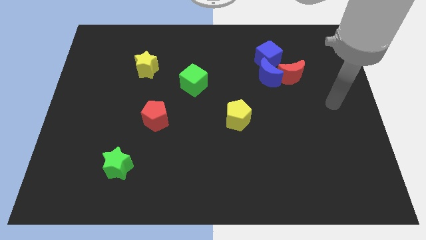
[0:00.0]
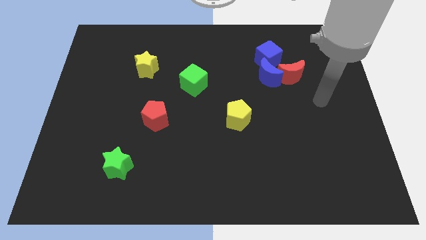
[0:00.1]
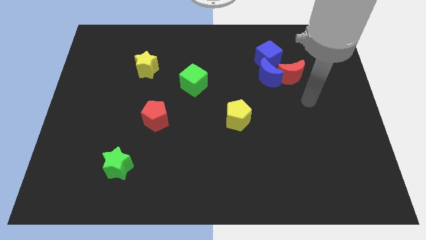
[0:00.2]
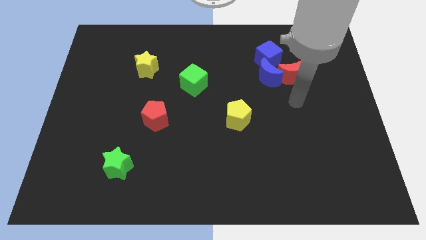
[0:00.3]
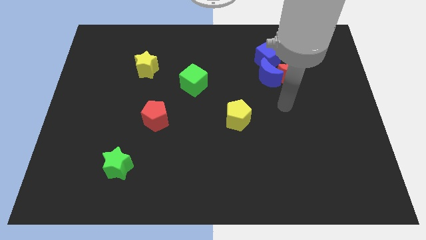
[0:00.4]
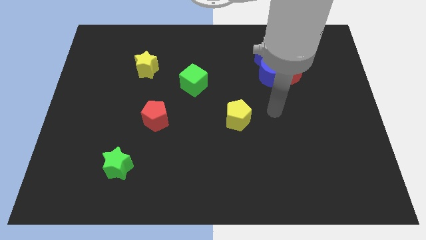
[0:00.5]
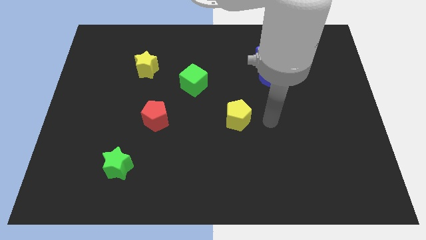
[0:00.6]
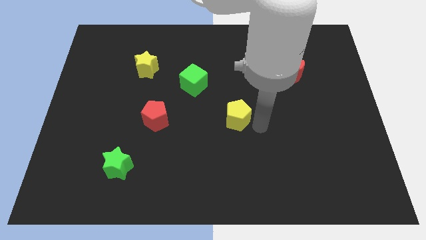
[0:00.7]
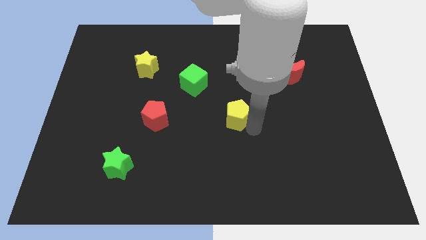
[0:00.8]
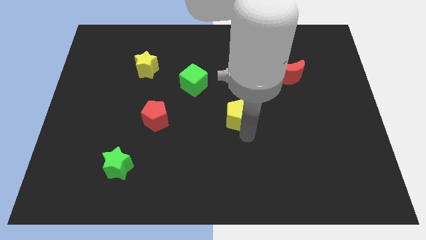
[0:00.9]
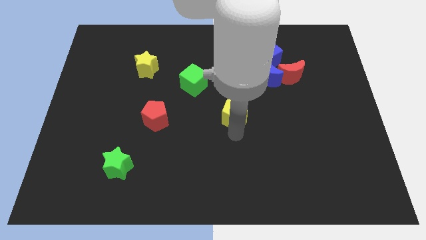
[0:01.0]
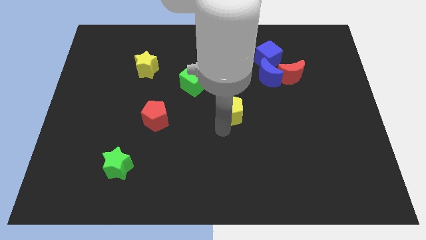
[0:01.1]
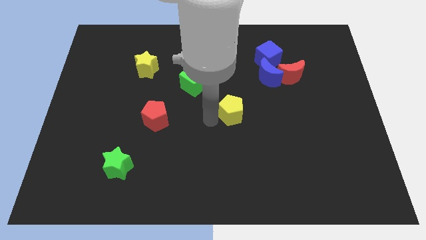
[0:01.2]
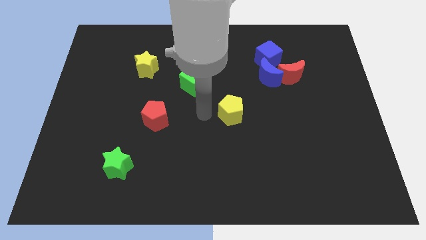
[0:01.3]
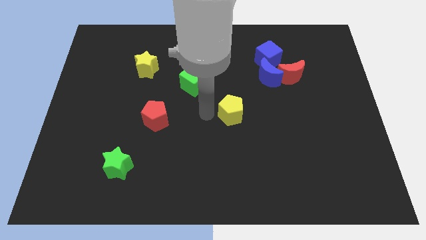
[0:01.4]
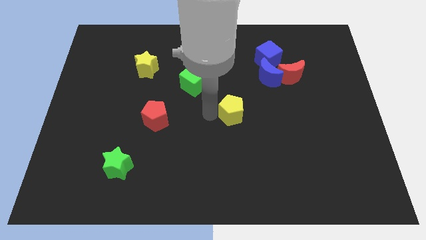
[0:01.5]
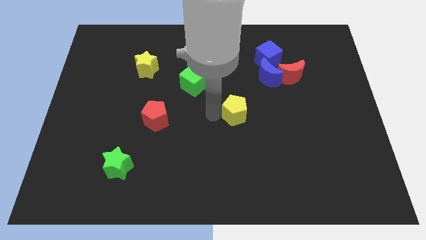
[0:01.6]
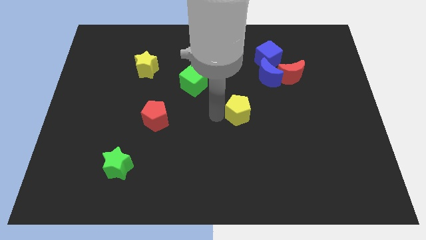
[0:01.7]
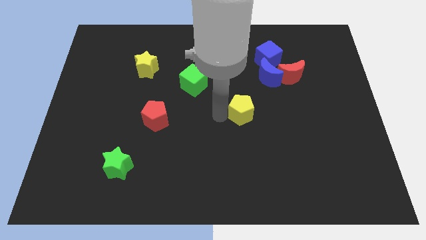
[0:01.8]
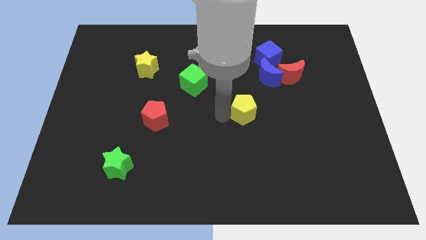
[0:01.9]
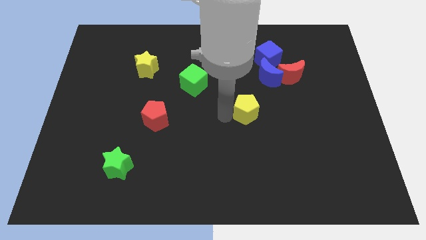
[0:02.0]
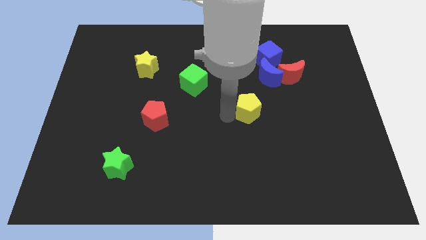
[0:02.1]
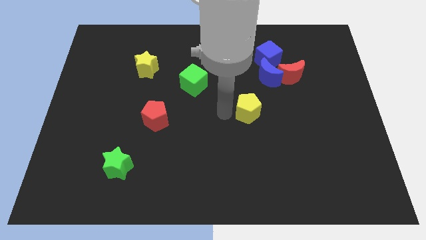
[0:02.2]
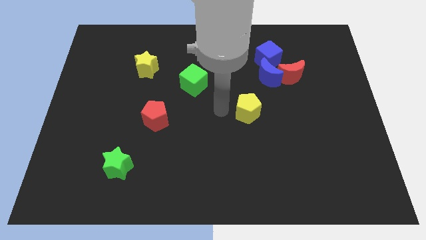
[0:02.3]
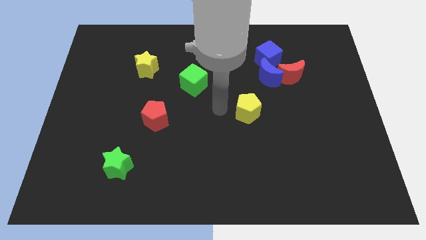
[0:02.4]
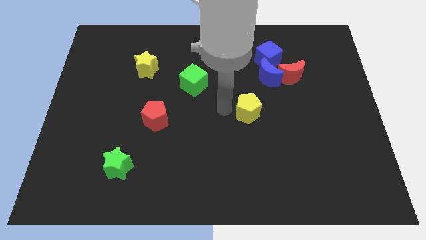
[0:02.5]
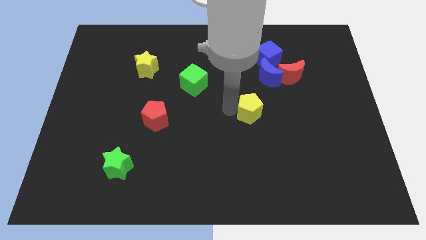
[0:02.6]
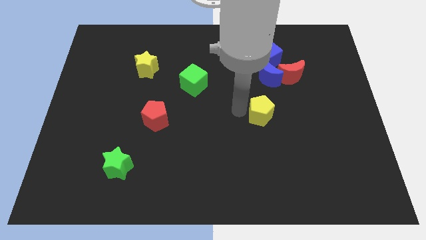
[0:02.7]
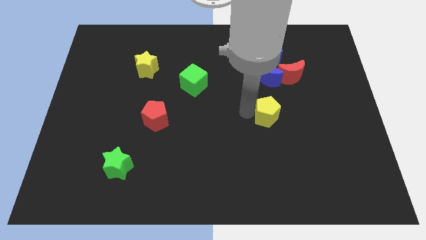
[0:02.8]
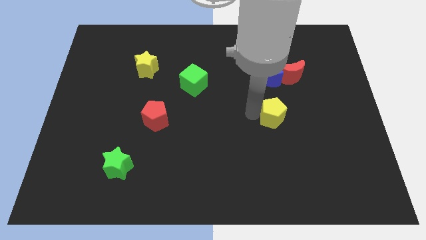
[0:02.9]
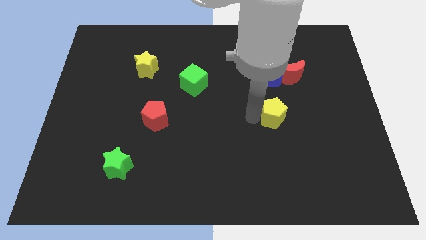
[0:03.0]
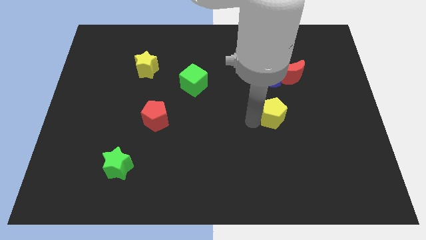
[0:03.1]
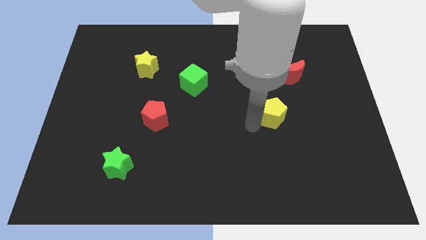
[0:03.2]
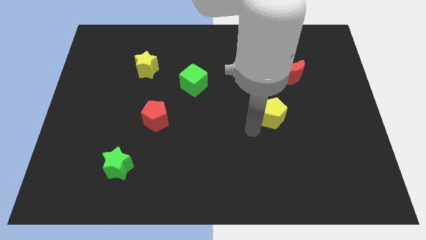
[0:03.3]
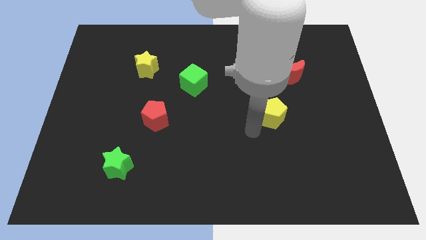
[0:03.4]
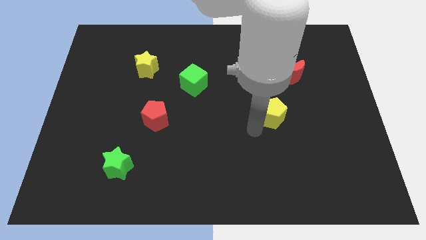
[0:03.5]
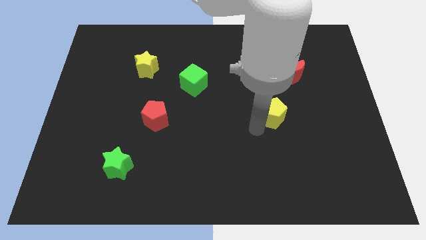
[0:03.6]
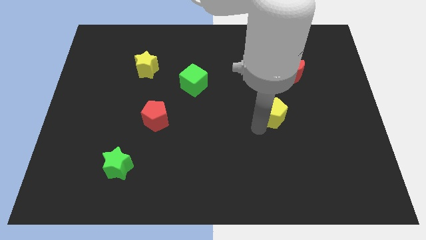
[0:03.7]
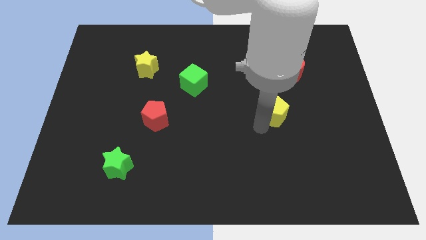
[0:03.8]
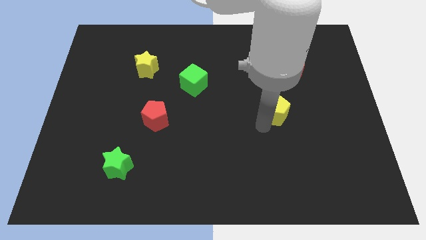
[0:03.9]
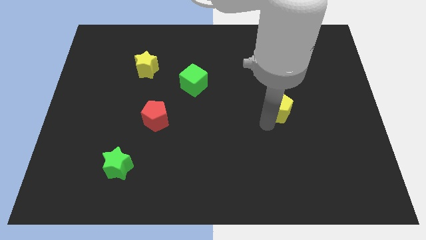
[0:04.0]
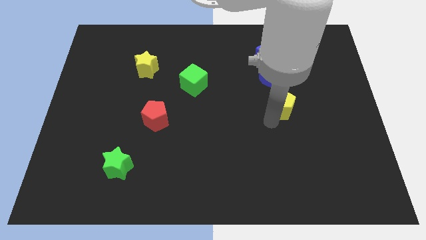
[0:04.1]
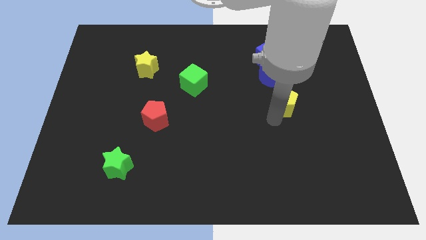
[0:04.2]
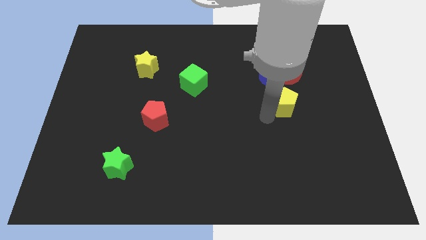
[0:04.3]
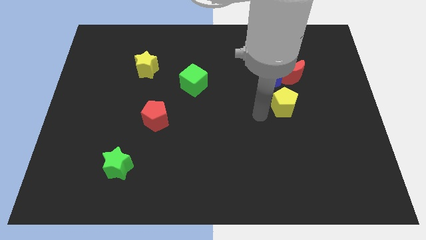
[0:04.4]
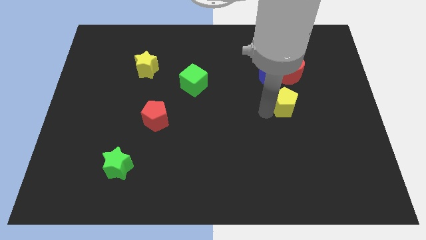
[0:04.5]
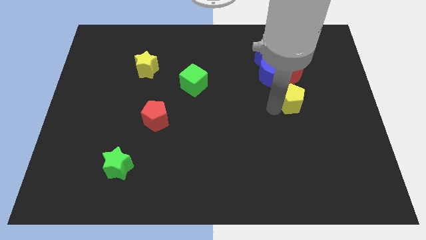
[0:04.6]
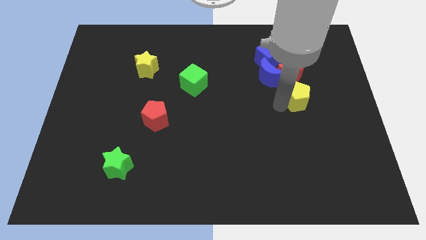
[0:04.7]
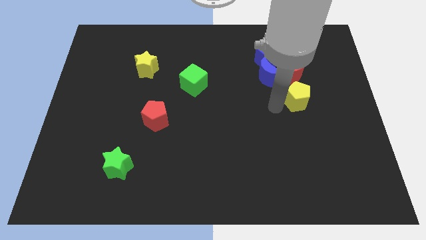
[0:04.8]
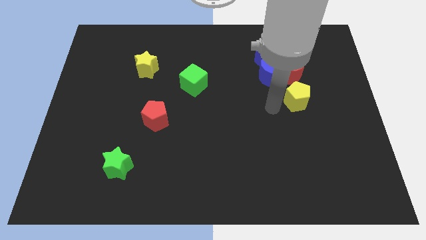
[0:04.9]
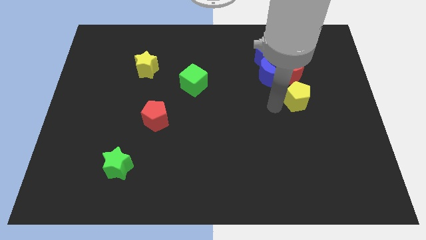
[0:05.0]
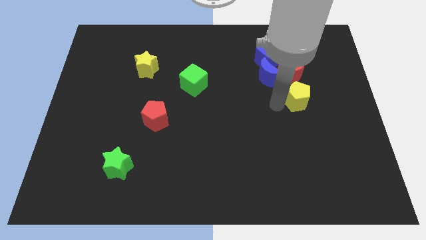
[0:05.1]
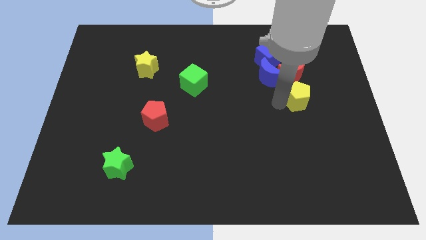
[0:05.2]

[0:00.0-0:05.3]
move the yellow pentagon to the bottom right of the red moon

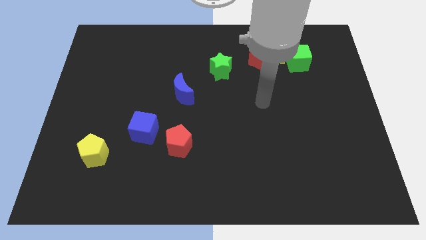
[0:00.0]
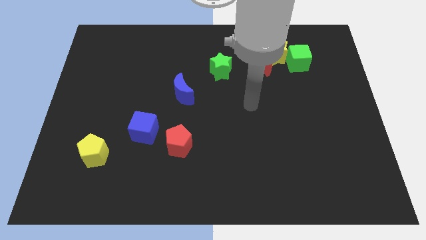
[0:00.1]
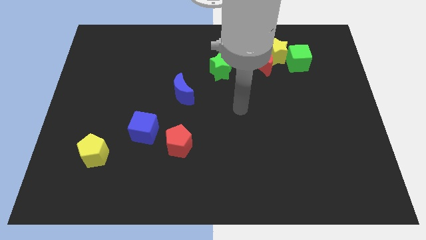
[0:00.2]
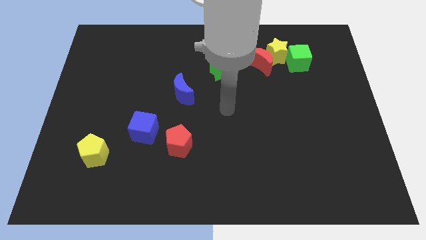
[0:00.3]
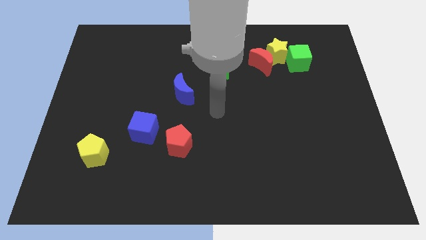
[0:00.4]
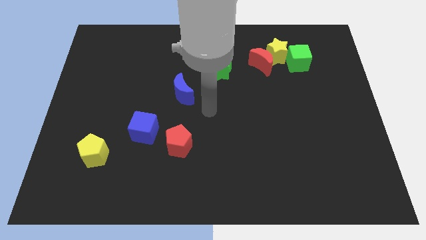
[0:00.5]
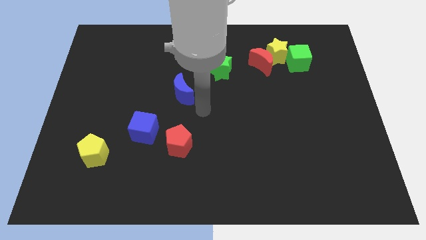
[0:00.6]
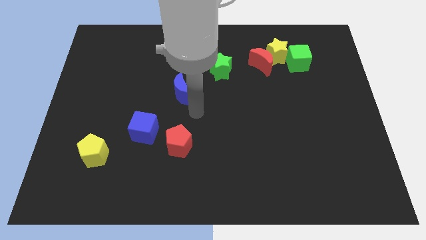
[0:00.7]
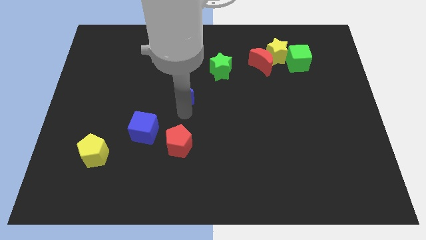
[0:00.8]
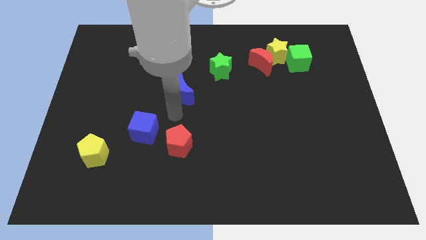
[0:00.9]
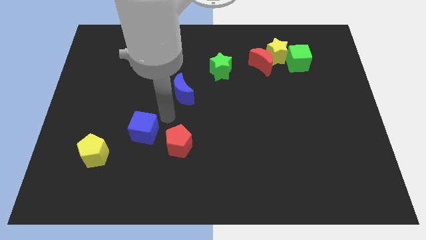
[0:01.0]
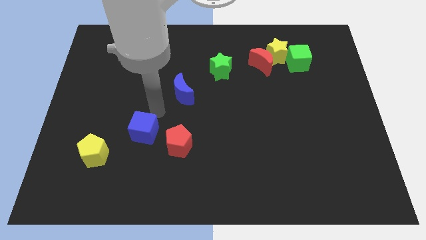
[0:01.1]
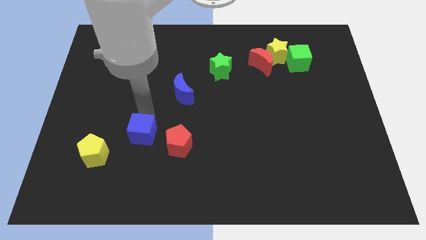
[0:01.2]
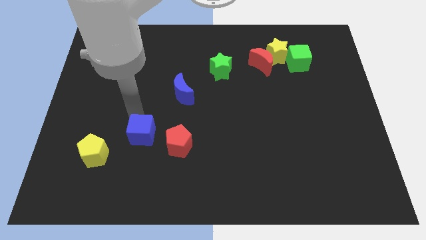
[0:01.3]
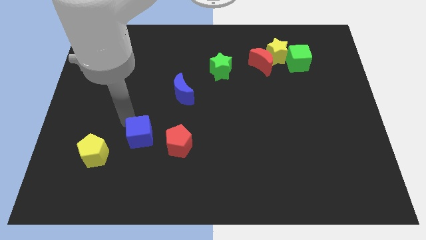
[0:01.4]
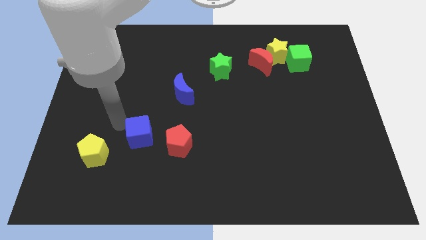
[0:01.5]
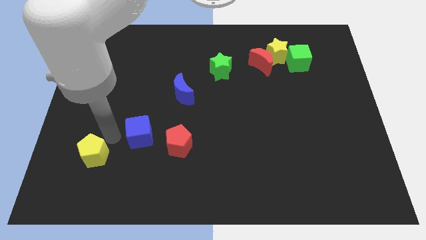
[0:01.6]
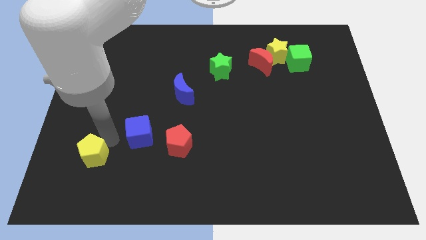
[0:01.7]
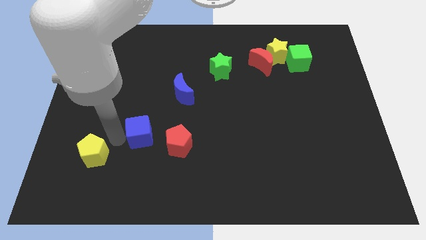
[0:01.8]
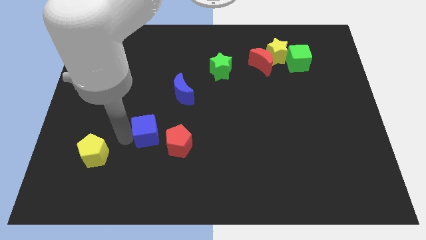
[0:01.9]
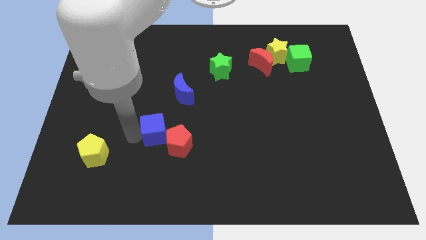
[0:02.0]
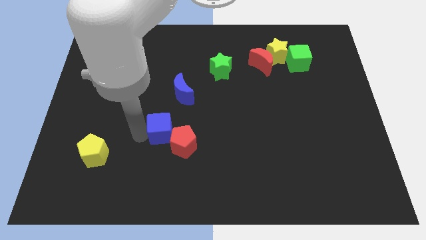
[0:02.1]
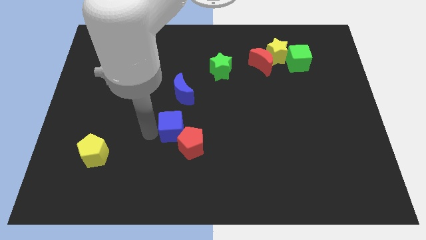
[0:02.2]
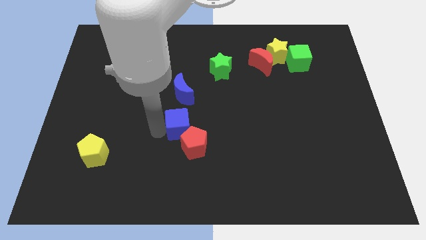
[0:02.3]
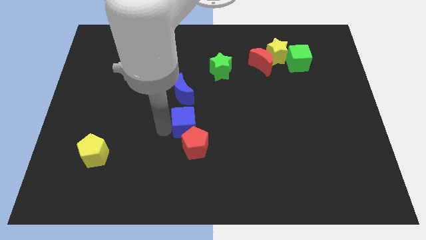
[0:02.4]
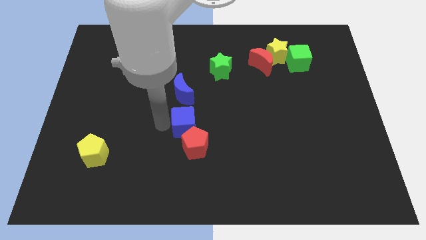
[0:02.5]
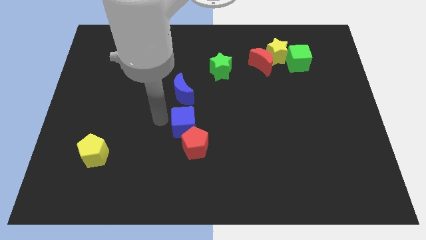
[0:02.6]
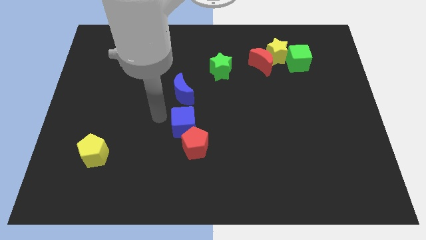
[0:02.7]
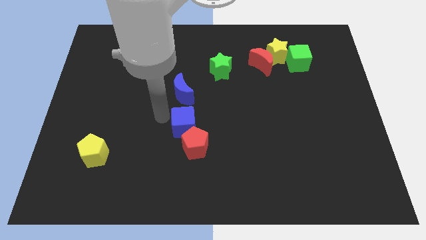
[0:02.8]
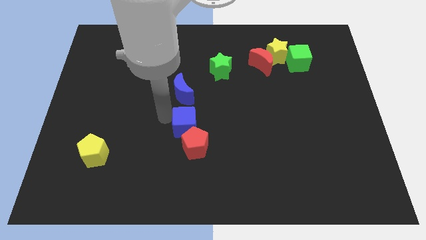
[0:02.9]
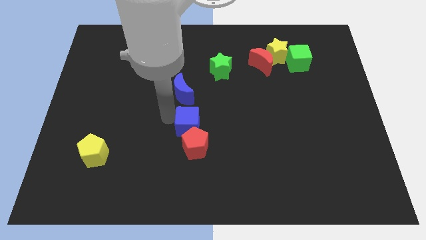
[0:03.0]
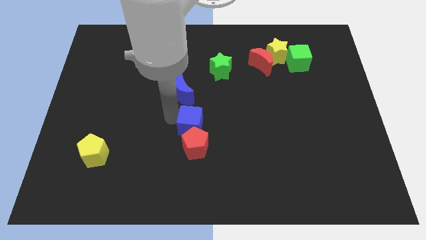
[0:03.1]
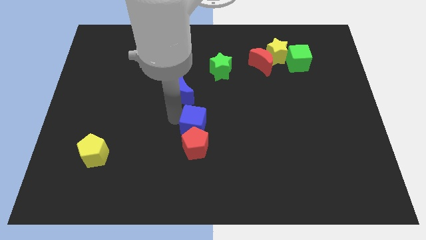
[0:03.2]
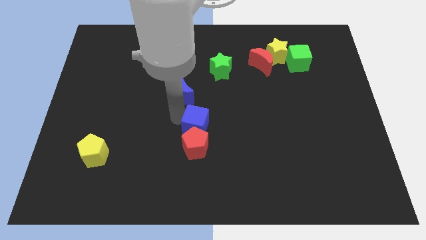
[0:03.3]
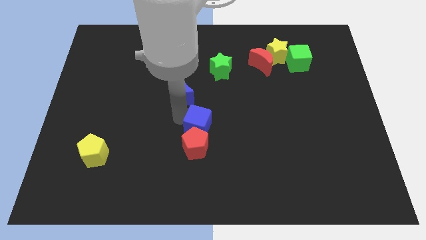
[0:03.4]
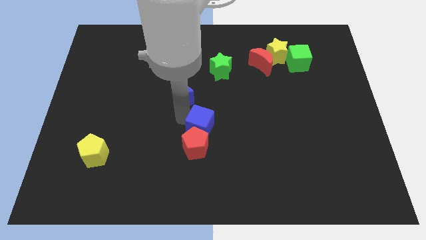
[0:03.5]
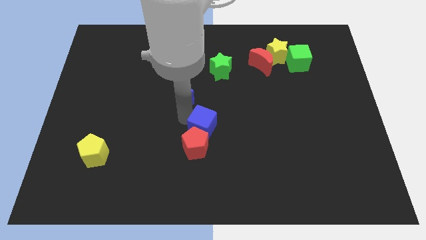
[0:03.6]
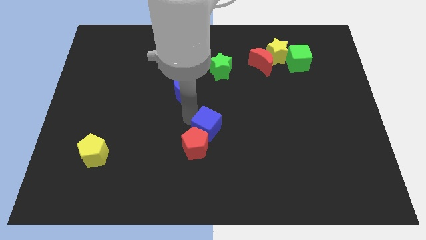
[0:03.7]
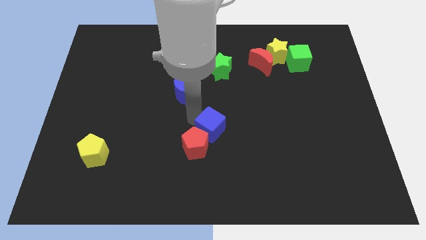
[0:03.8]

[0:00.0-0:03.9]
push the blue cube to the right side of the red pentagon
